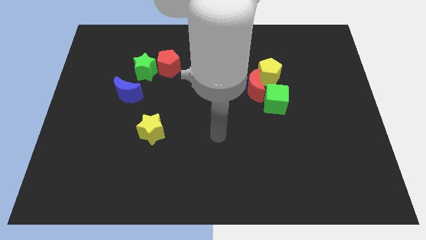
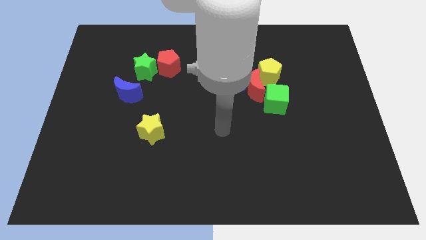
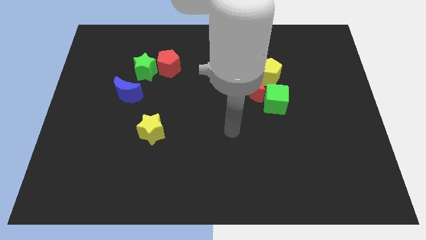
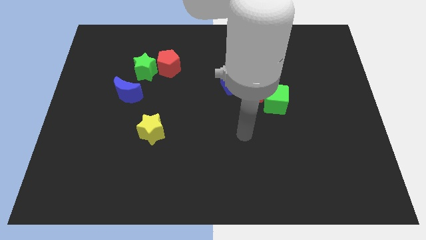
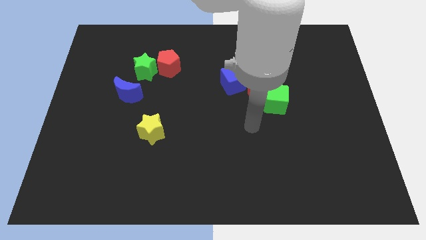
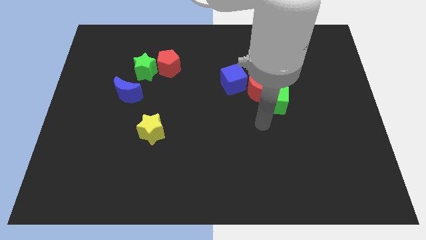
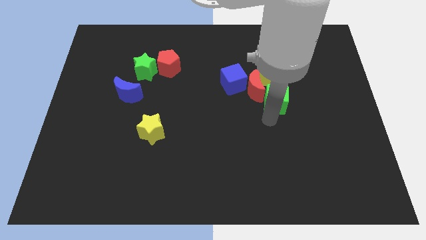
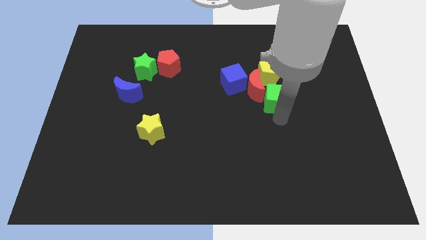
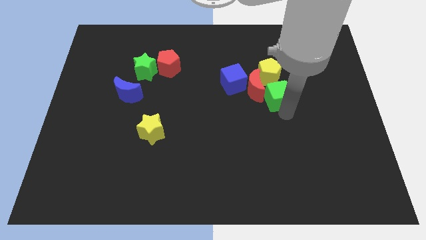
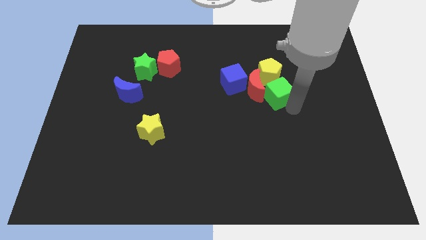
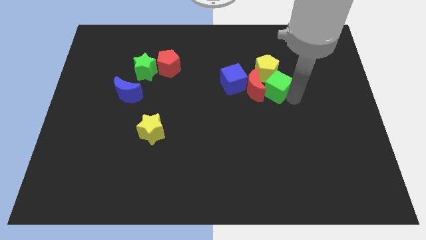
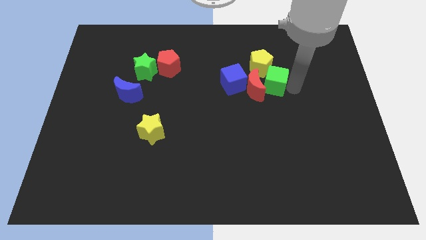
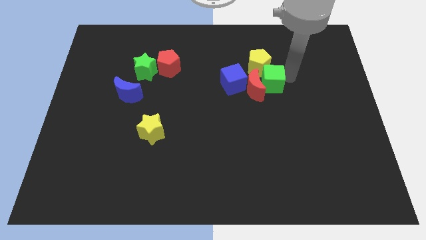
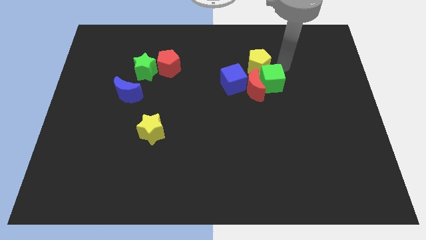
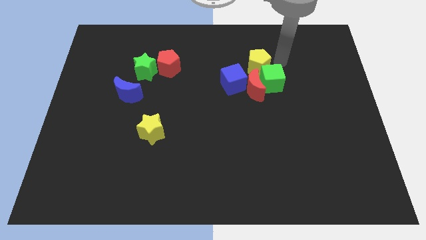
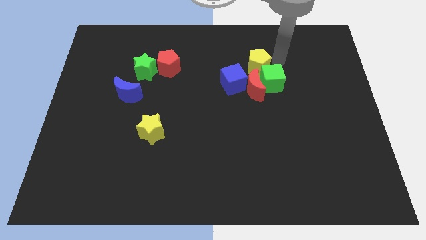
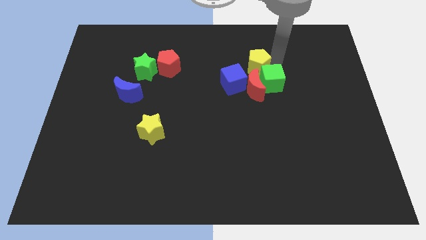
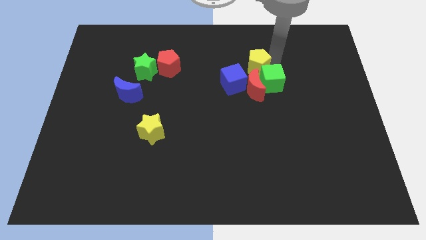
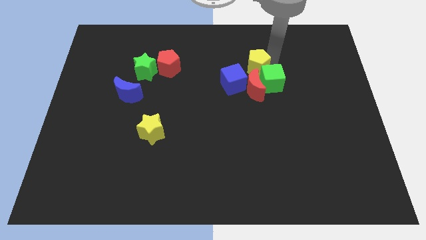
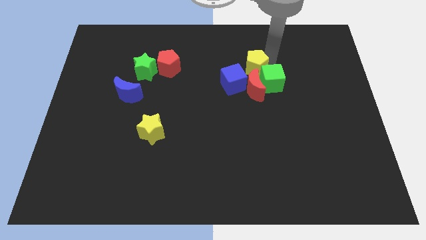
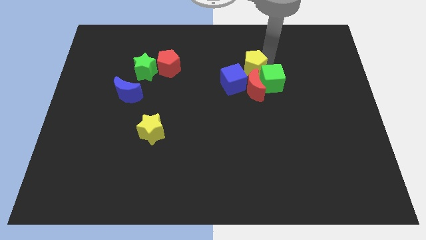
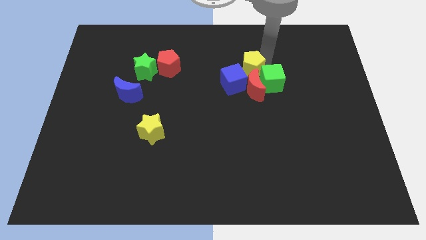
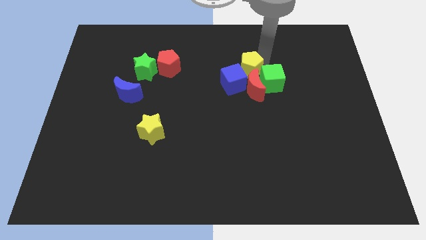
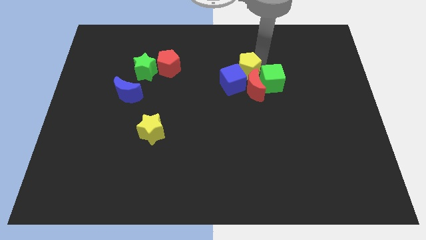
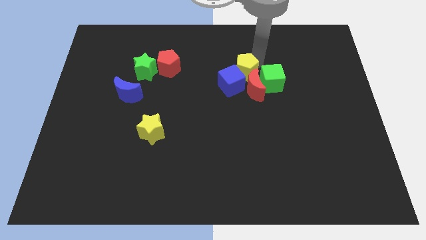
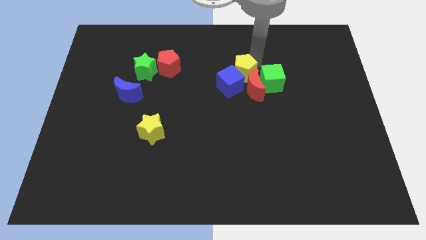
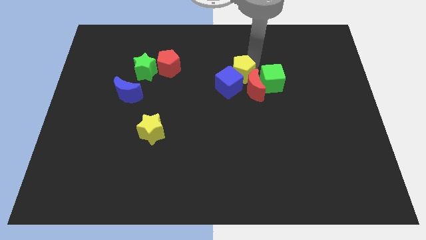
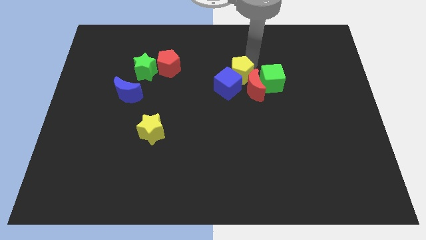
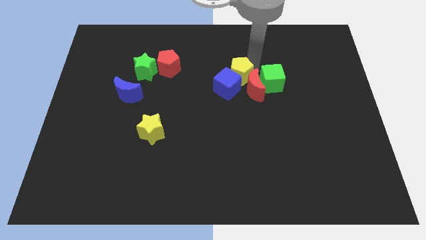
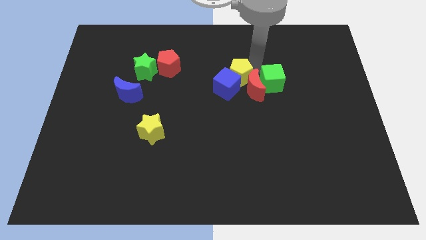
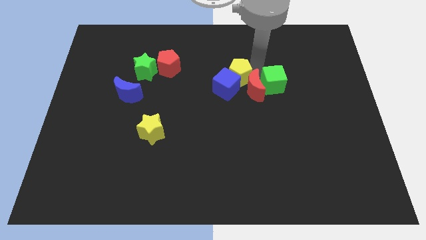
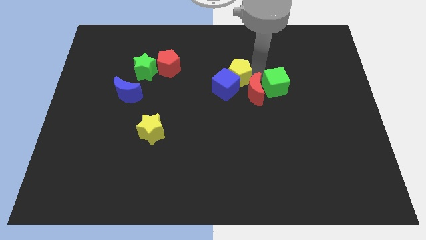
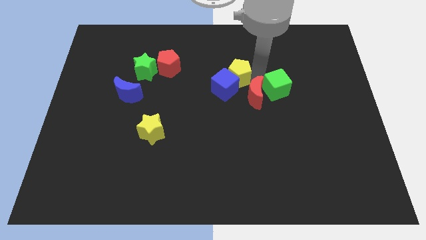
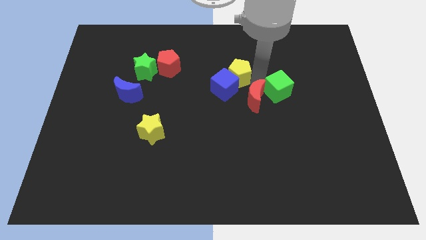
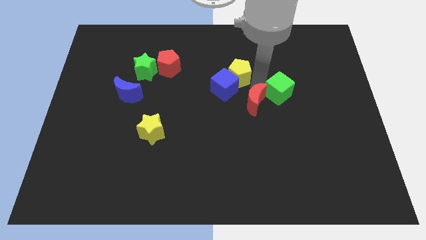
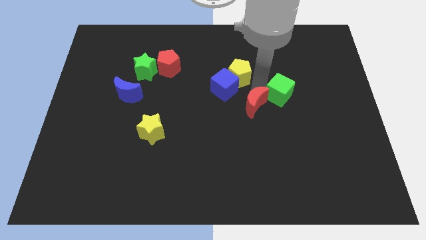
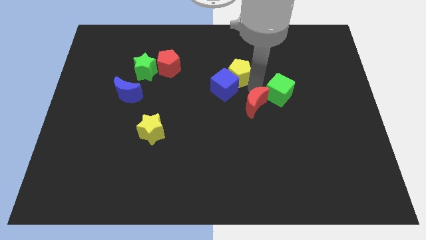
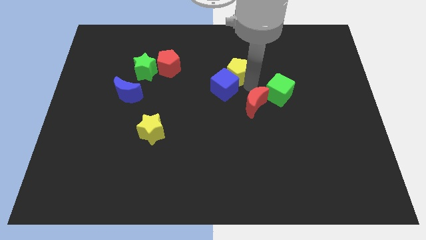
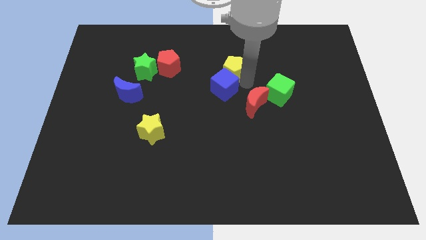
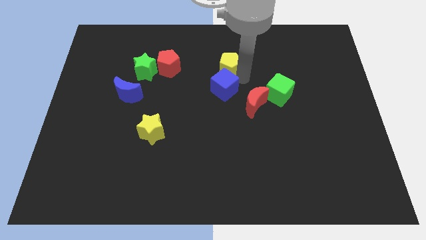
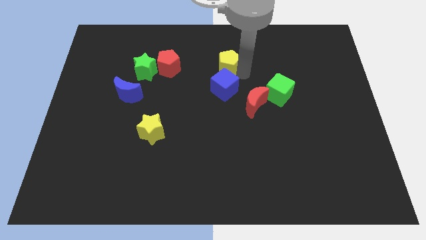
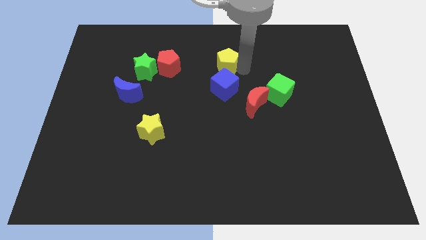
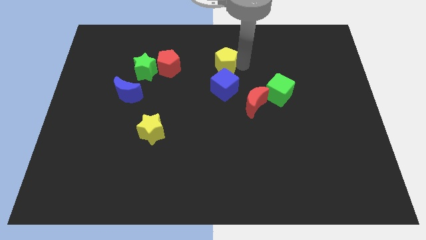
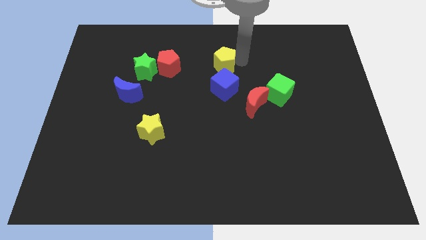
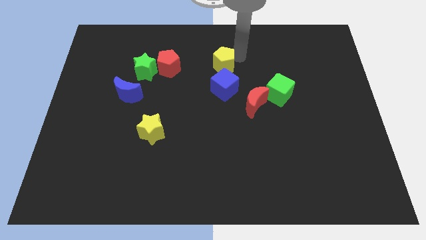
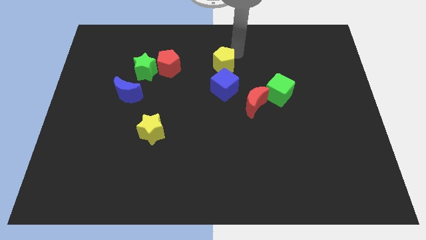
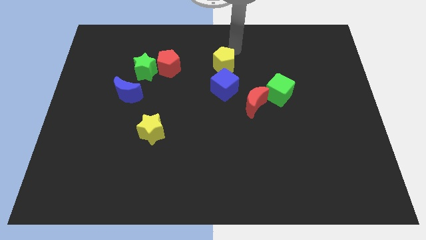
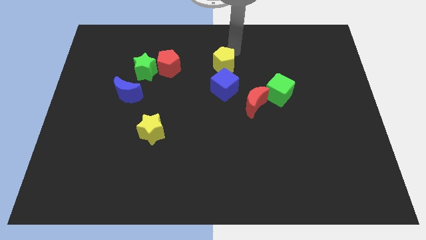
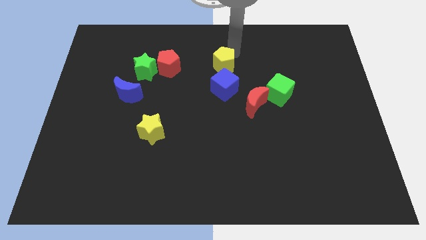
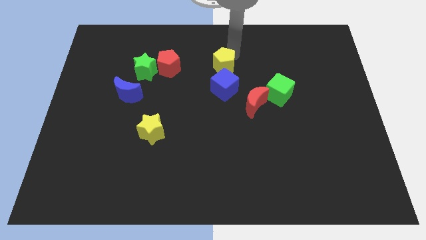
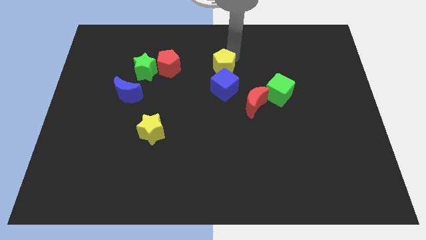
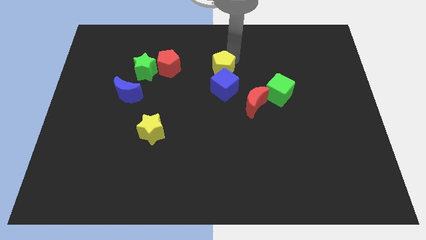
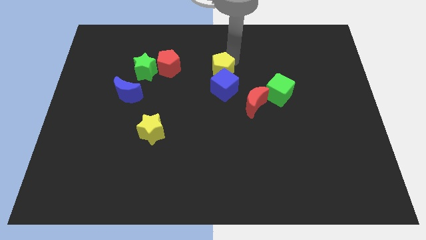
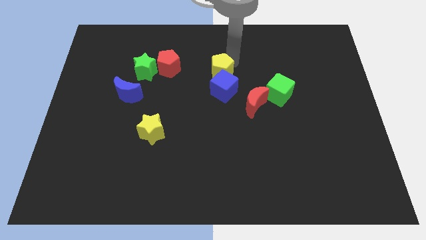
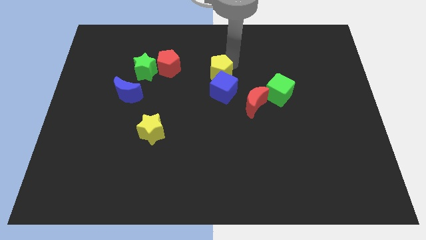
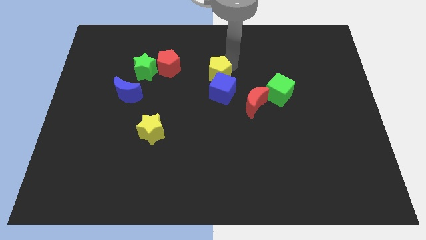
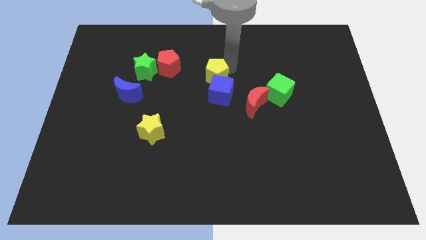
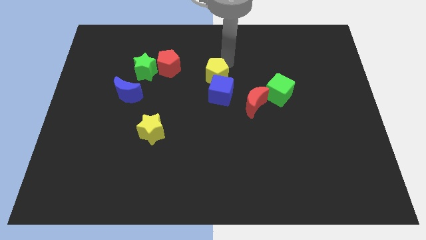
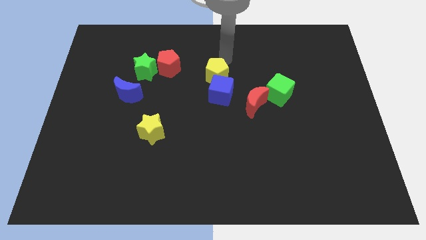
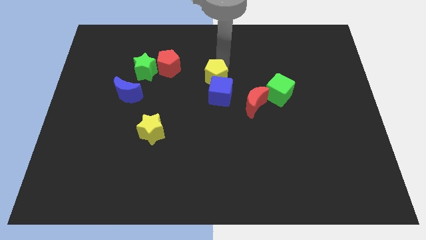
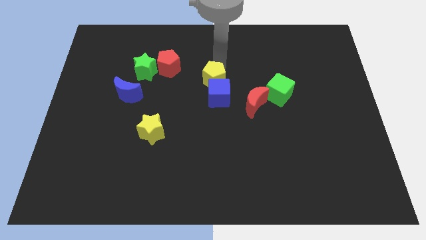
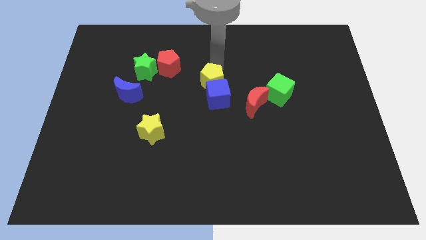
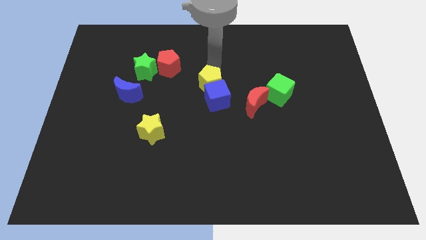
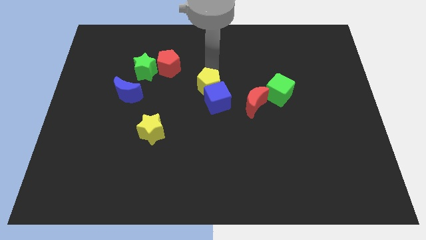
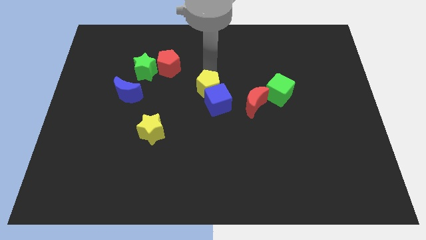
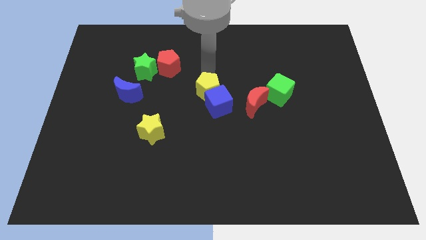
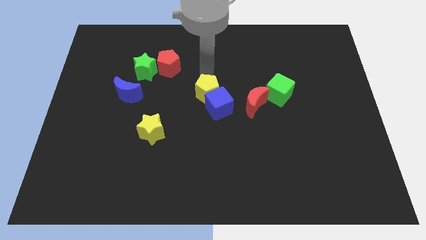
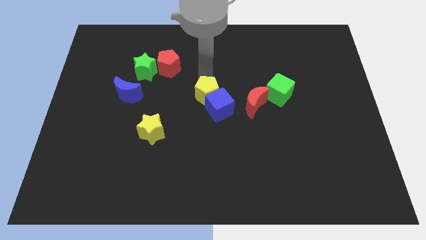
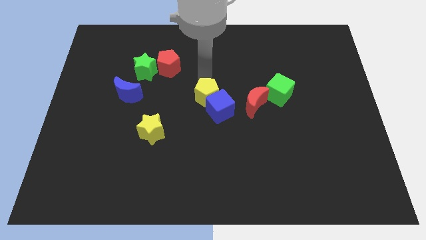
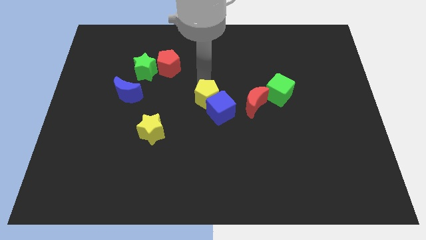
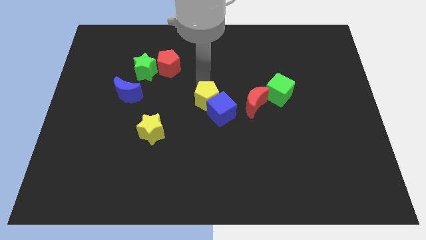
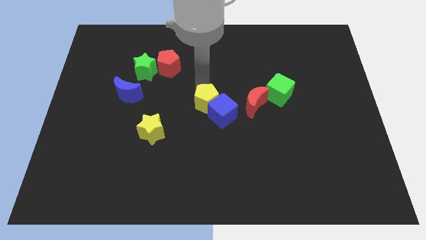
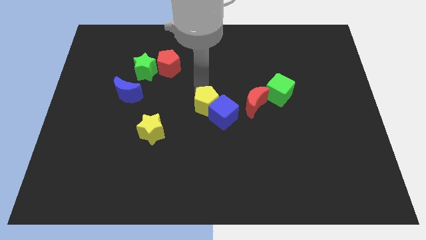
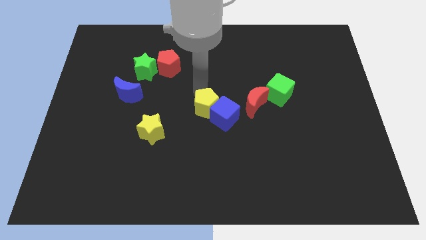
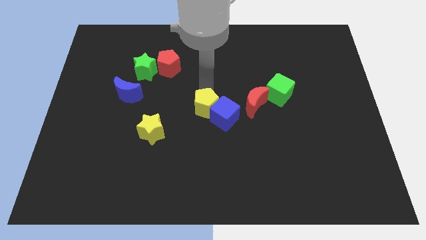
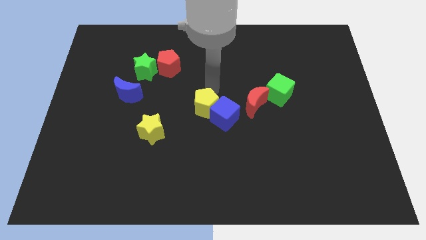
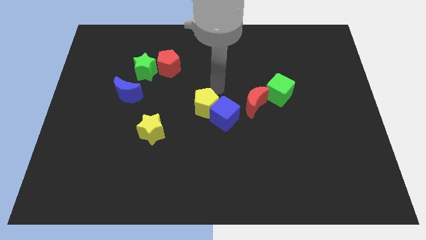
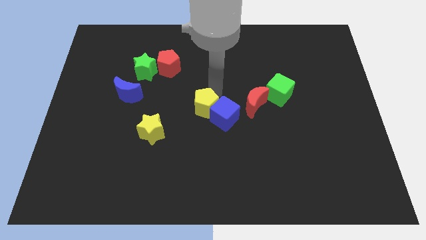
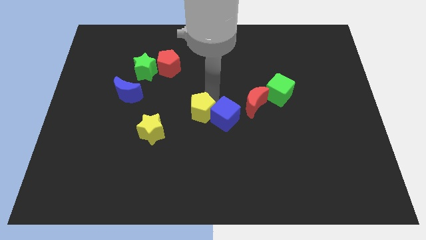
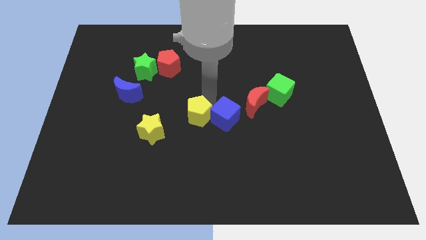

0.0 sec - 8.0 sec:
slide the yellow pentagon downwards and then left
